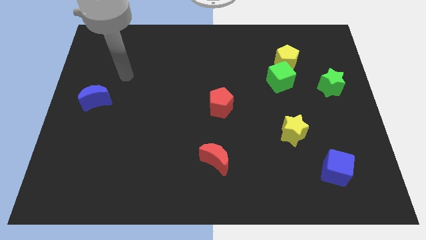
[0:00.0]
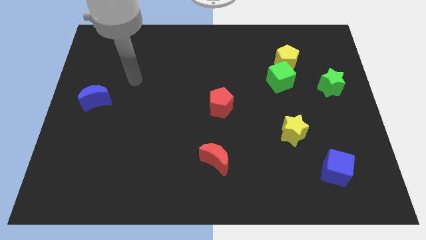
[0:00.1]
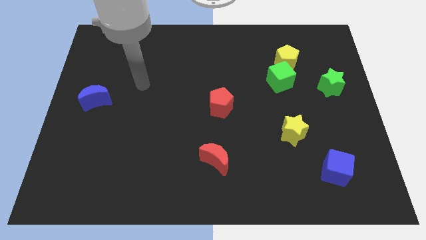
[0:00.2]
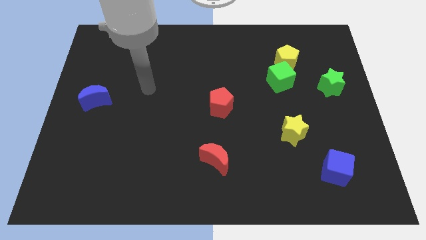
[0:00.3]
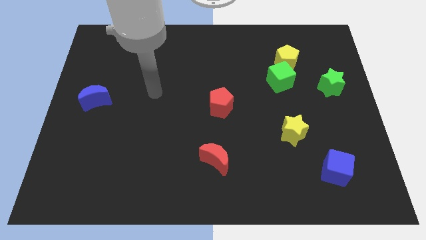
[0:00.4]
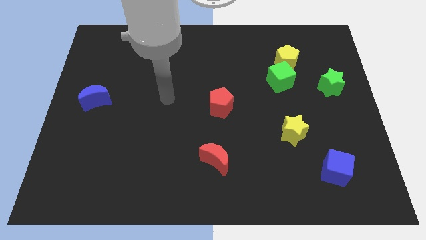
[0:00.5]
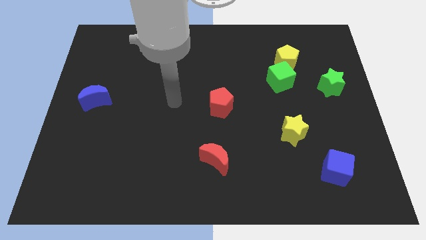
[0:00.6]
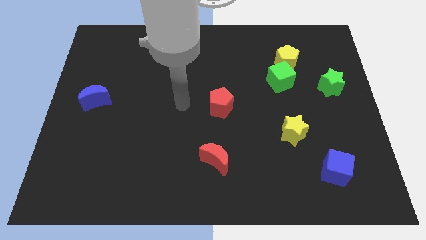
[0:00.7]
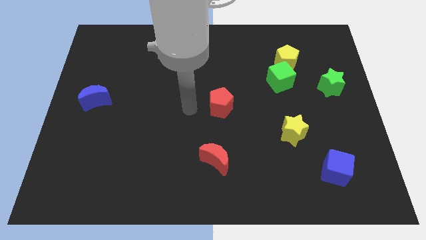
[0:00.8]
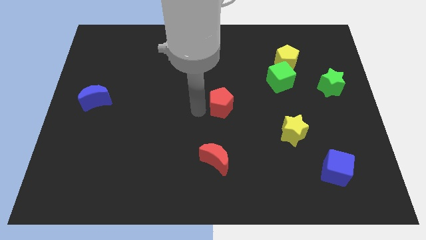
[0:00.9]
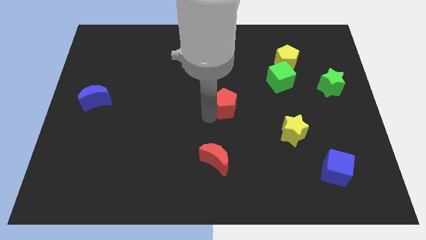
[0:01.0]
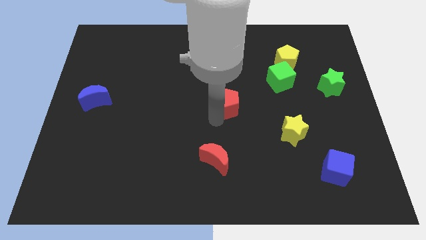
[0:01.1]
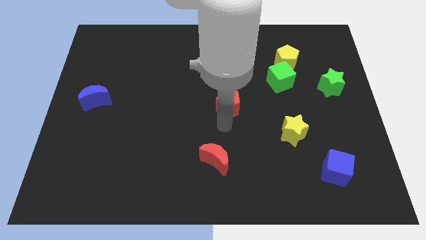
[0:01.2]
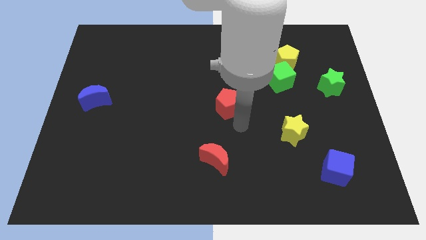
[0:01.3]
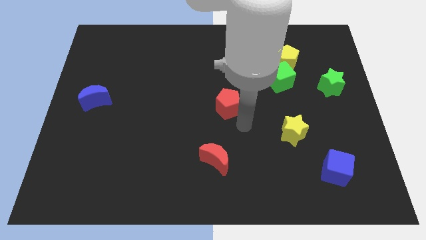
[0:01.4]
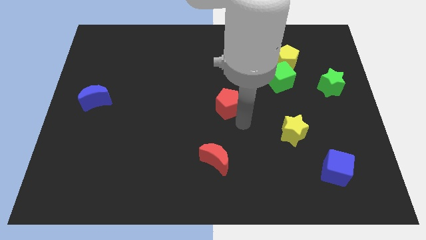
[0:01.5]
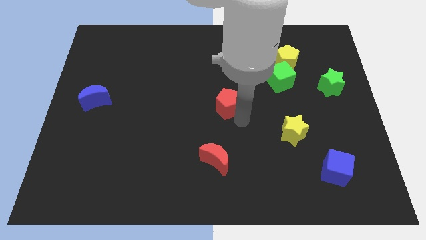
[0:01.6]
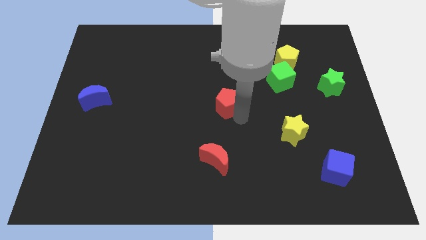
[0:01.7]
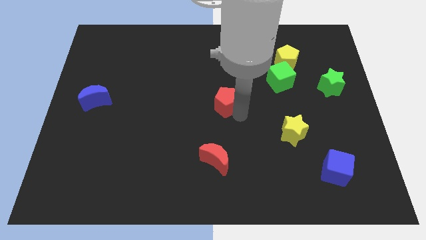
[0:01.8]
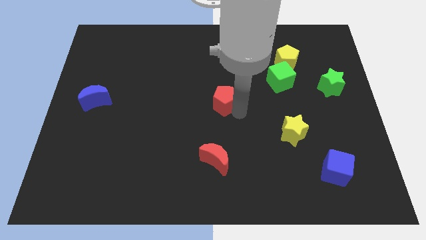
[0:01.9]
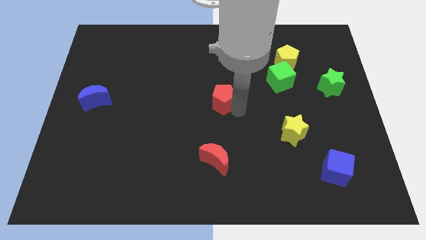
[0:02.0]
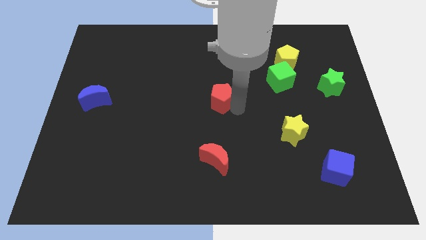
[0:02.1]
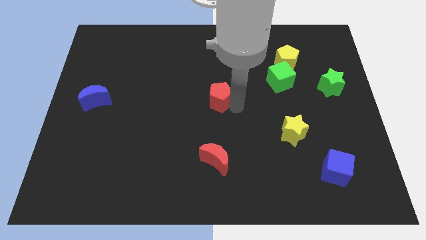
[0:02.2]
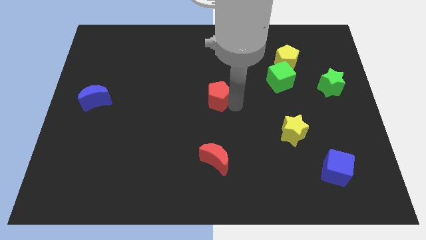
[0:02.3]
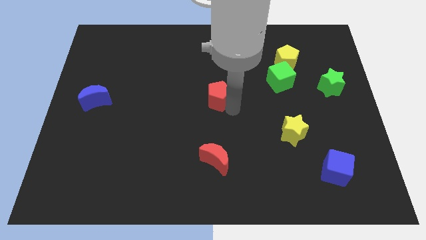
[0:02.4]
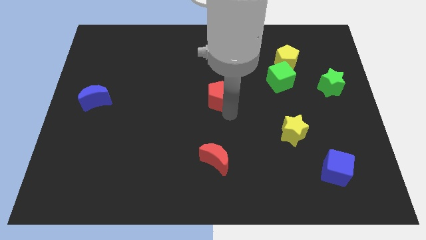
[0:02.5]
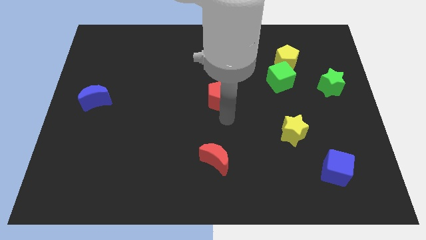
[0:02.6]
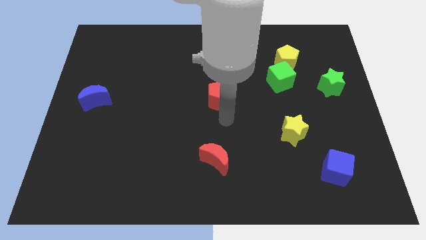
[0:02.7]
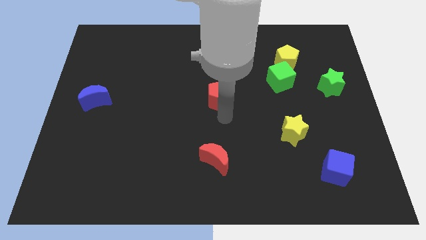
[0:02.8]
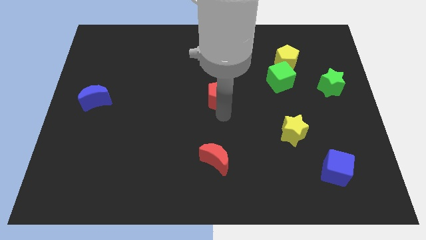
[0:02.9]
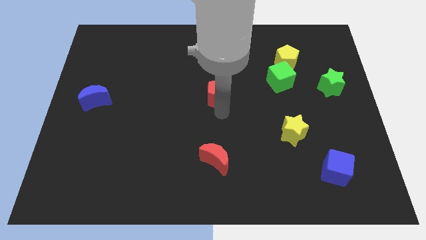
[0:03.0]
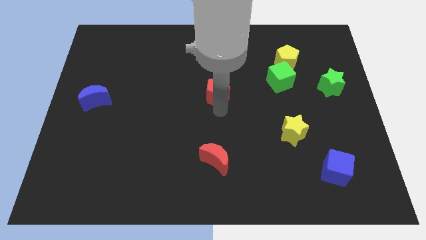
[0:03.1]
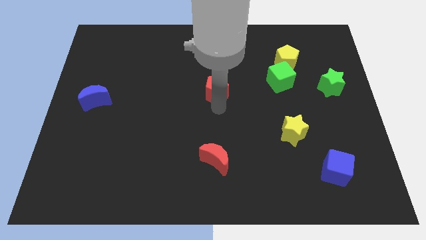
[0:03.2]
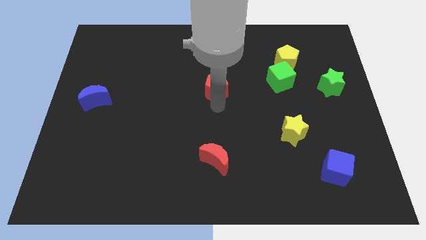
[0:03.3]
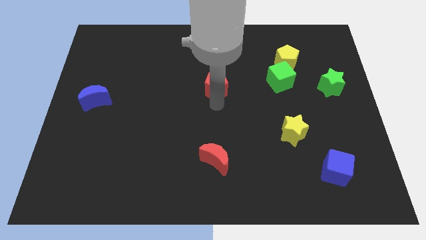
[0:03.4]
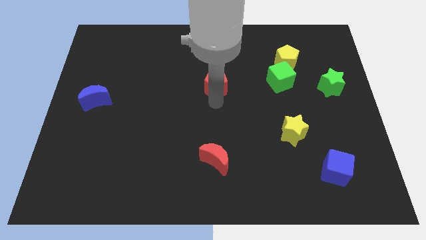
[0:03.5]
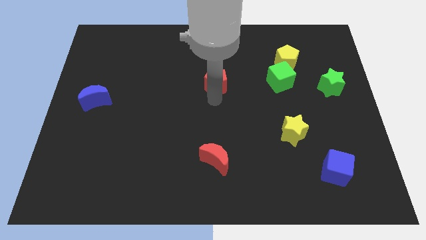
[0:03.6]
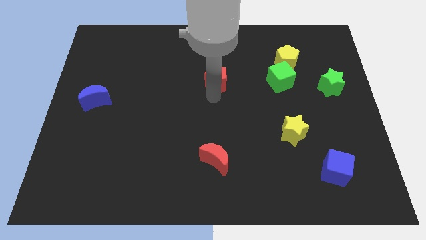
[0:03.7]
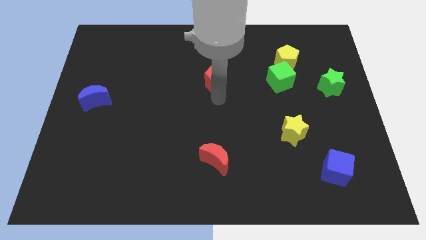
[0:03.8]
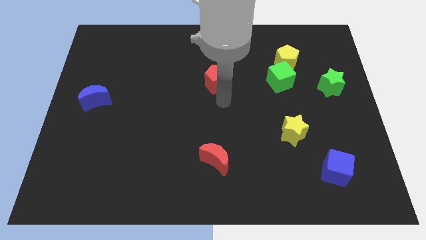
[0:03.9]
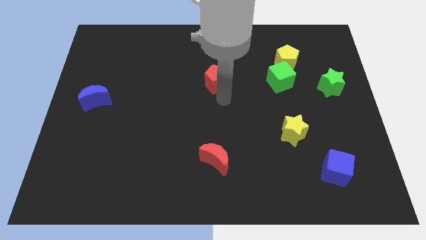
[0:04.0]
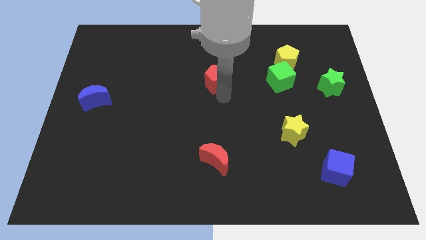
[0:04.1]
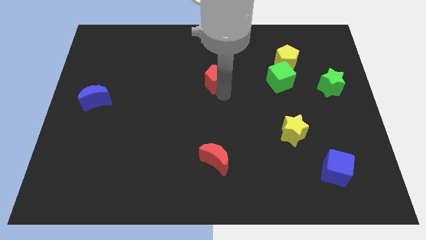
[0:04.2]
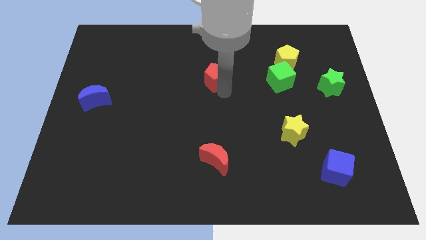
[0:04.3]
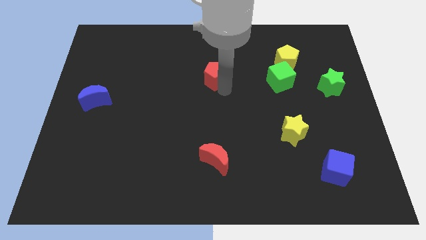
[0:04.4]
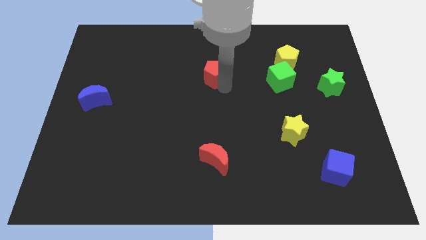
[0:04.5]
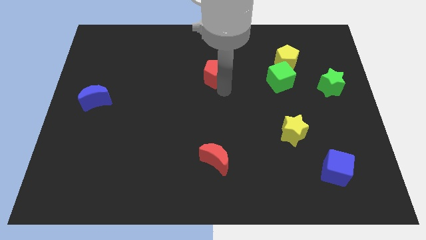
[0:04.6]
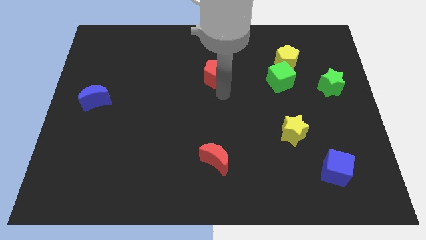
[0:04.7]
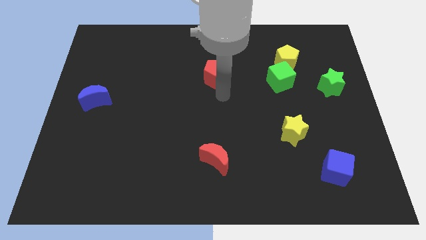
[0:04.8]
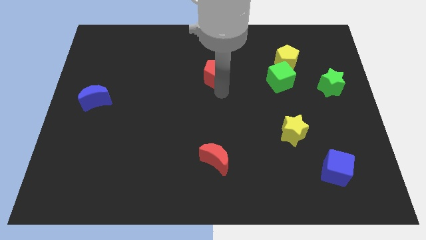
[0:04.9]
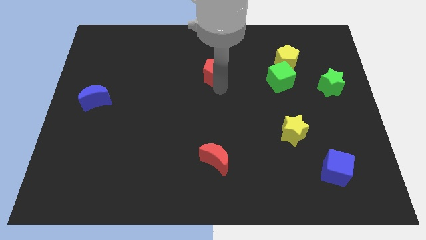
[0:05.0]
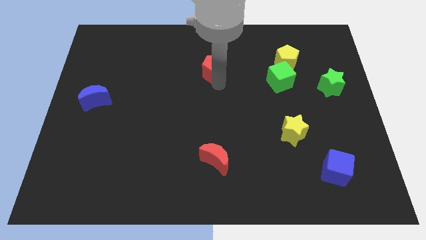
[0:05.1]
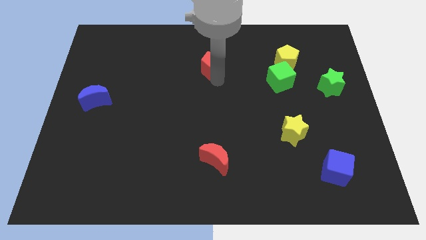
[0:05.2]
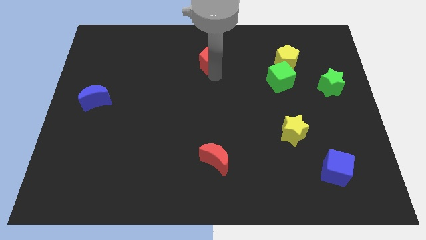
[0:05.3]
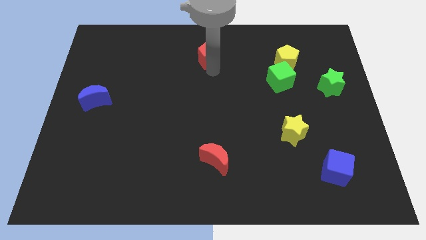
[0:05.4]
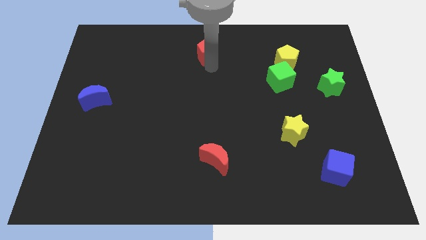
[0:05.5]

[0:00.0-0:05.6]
move the red pentagon to the top

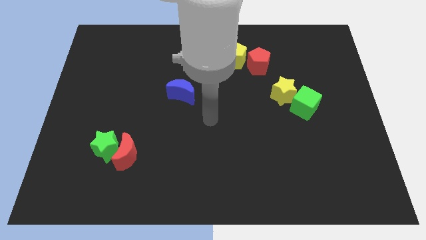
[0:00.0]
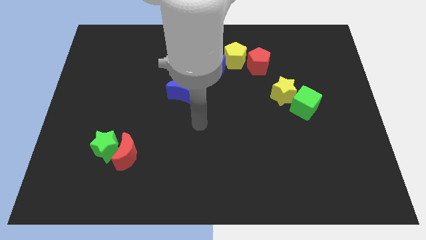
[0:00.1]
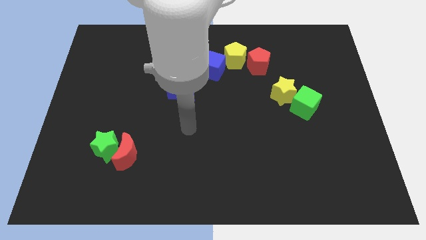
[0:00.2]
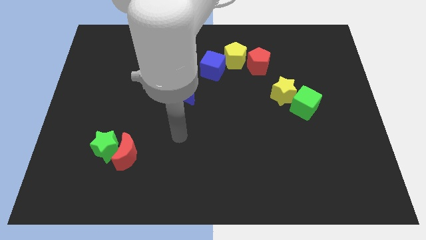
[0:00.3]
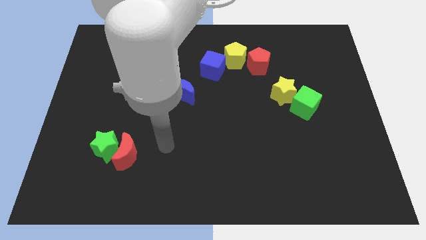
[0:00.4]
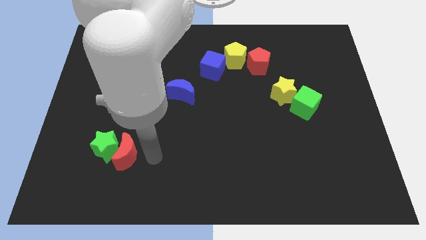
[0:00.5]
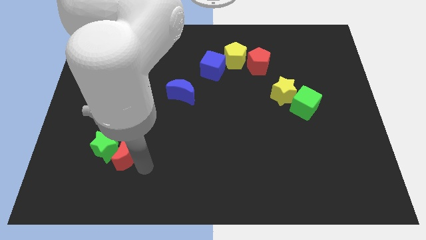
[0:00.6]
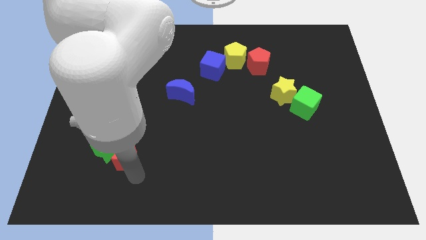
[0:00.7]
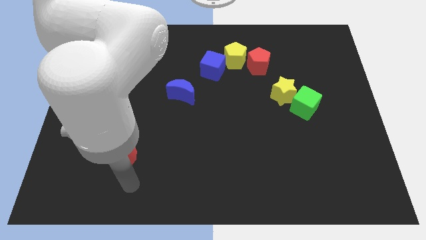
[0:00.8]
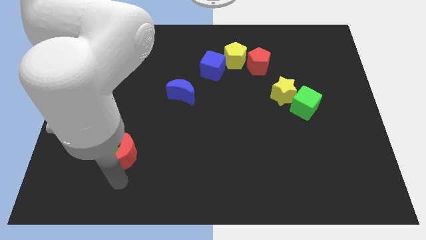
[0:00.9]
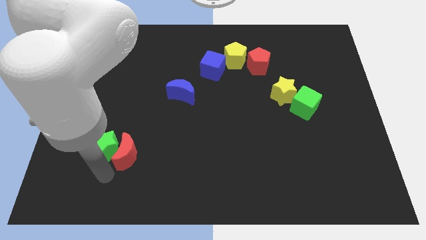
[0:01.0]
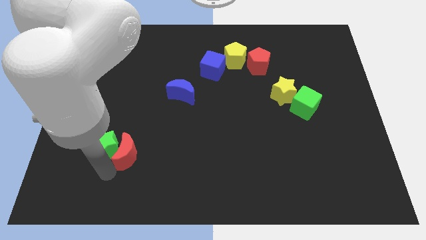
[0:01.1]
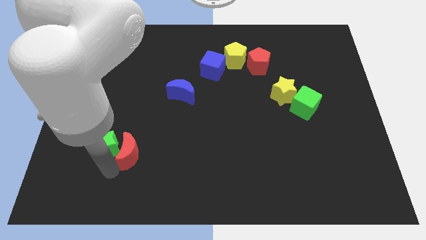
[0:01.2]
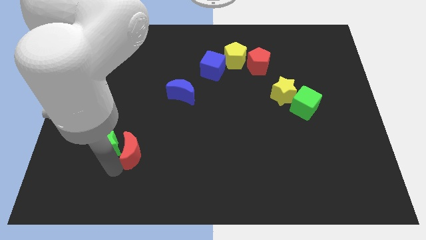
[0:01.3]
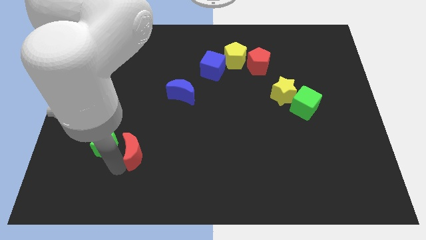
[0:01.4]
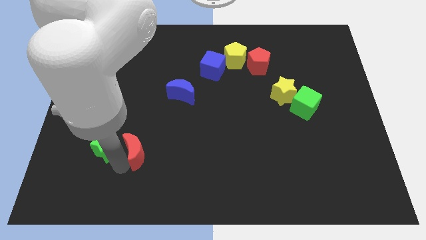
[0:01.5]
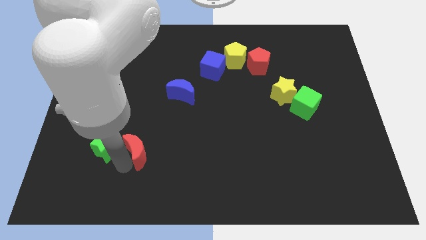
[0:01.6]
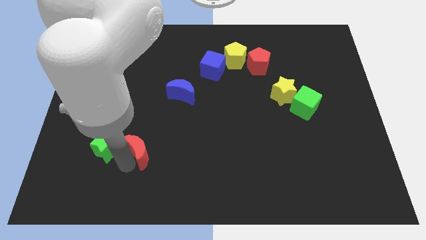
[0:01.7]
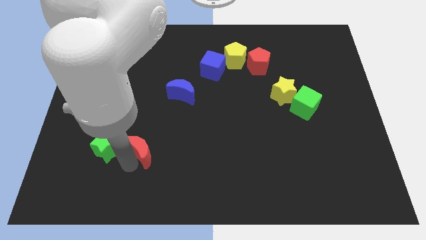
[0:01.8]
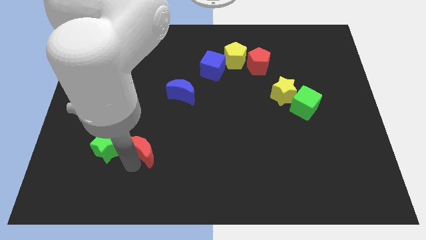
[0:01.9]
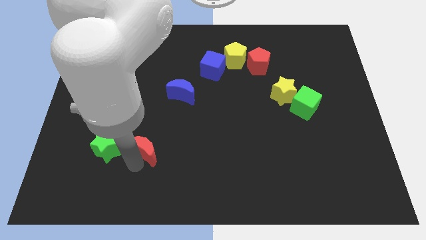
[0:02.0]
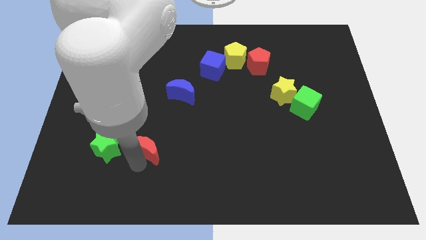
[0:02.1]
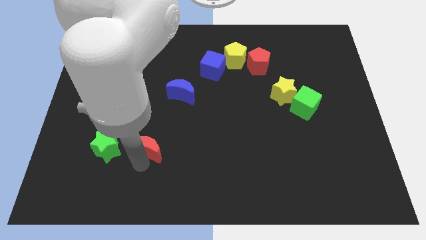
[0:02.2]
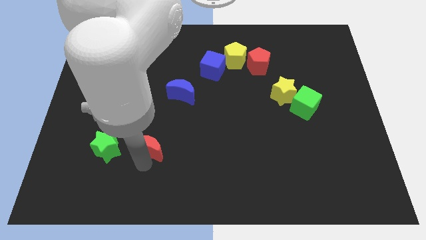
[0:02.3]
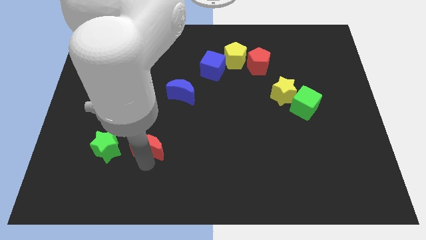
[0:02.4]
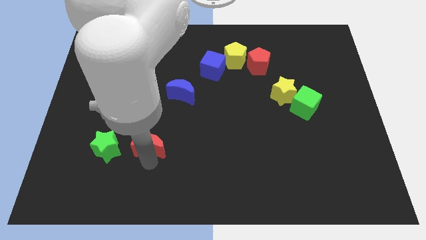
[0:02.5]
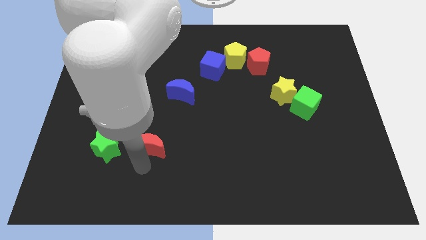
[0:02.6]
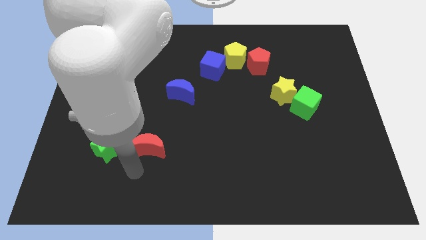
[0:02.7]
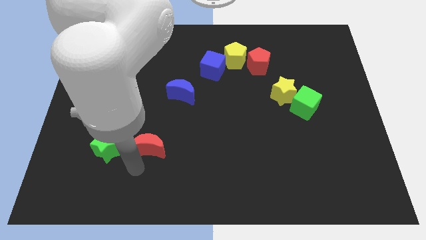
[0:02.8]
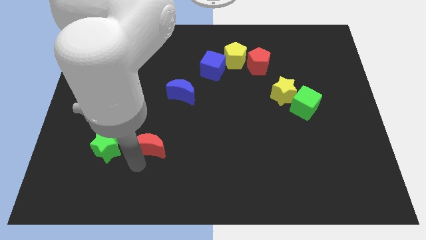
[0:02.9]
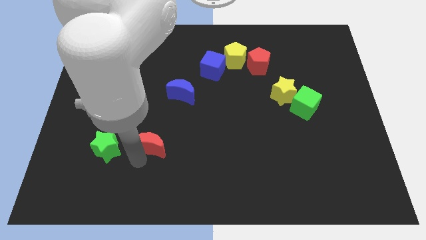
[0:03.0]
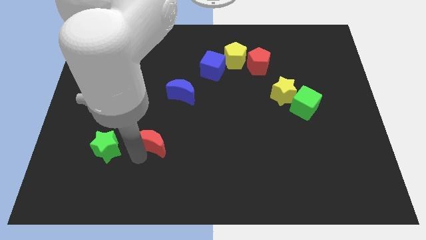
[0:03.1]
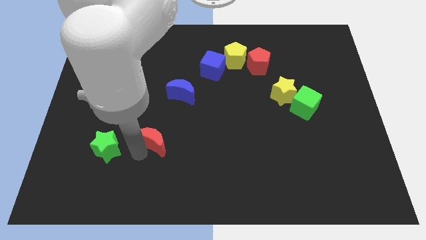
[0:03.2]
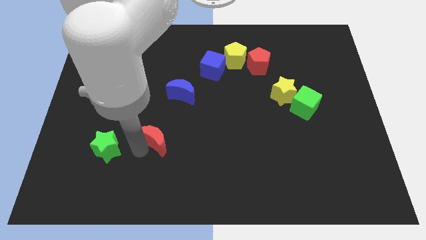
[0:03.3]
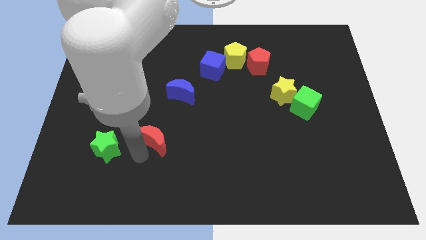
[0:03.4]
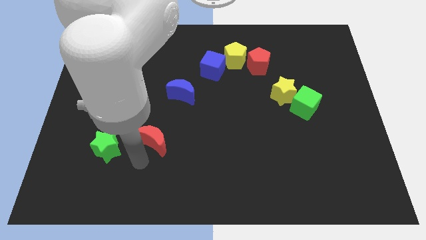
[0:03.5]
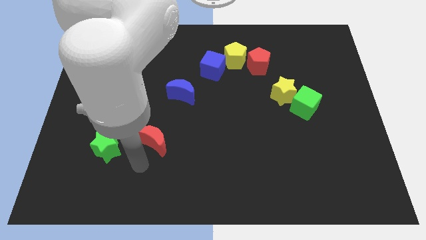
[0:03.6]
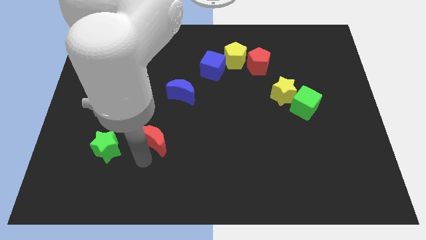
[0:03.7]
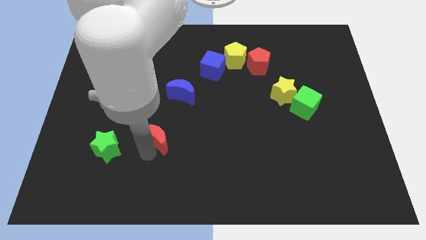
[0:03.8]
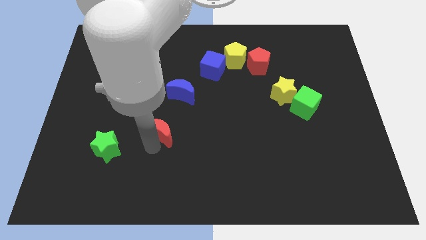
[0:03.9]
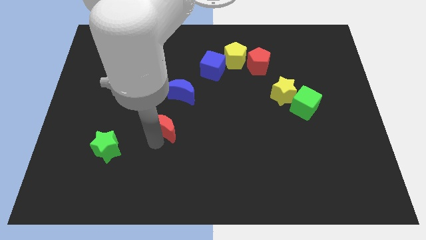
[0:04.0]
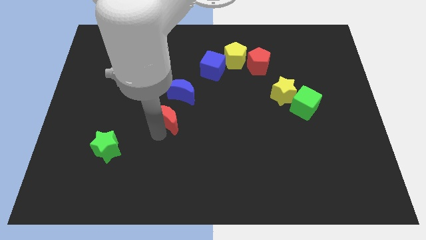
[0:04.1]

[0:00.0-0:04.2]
slide the red moon to the middle of the board
